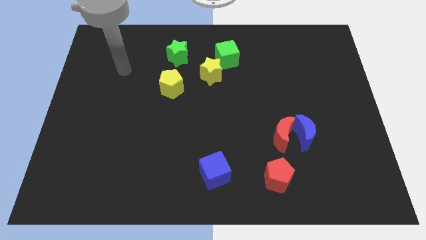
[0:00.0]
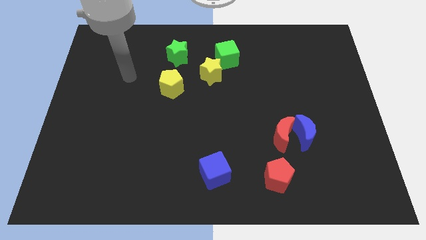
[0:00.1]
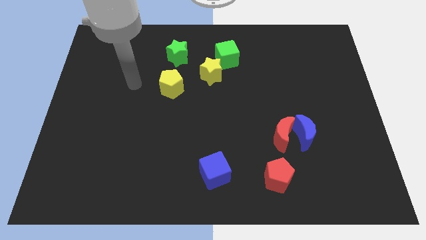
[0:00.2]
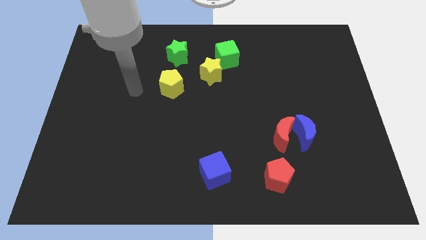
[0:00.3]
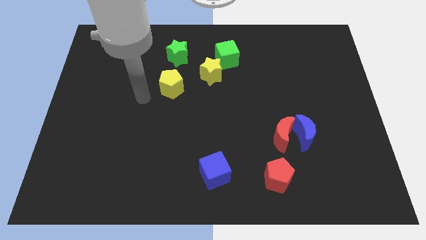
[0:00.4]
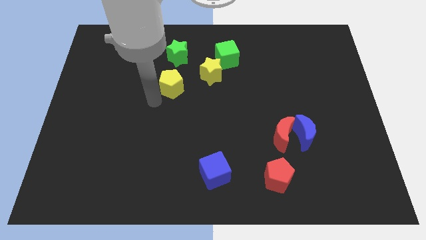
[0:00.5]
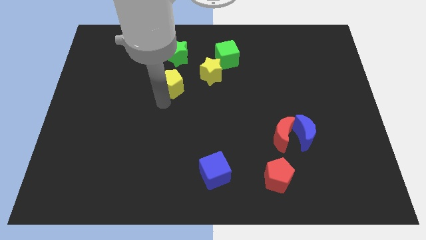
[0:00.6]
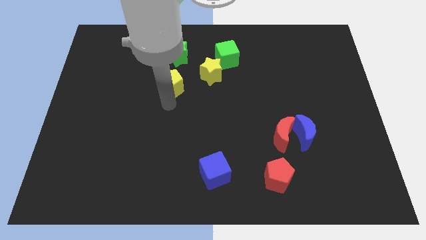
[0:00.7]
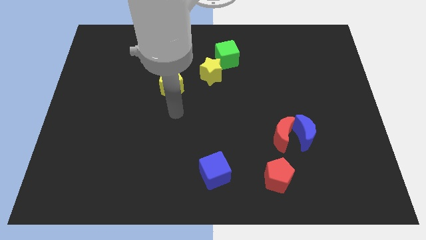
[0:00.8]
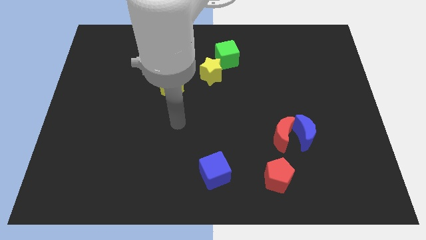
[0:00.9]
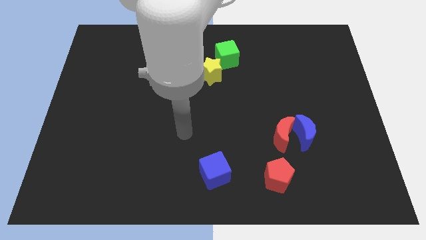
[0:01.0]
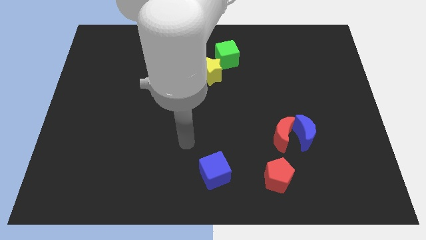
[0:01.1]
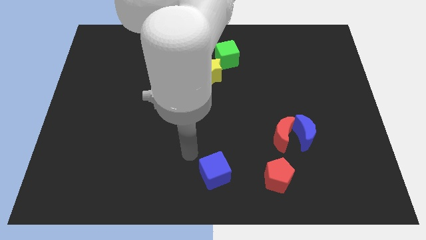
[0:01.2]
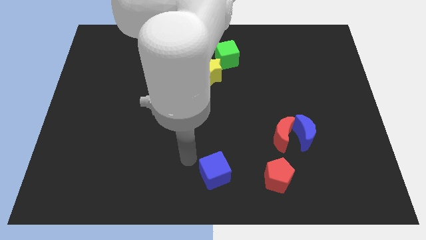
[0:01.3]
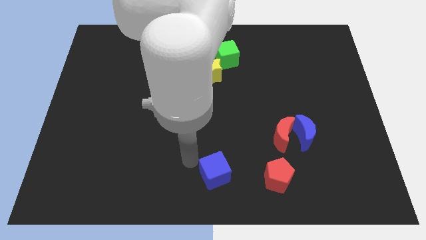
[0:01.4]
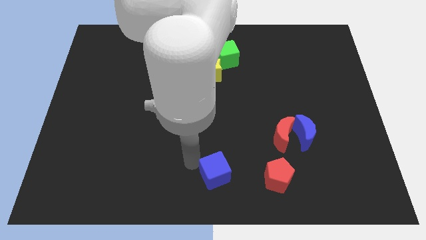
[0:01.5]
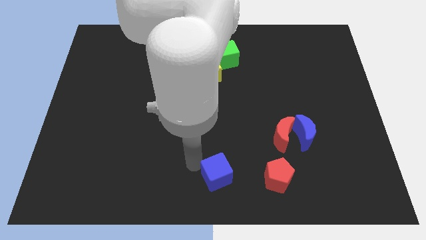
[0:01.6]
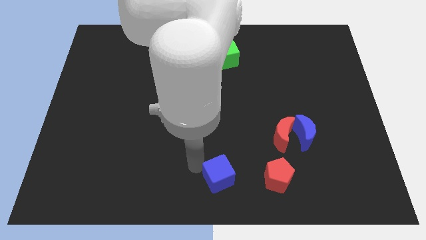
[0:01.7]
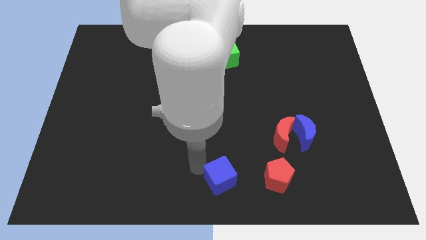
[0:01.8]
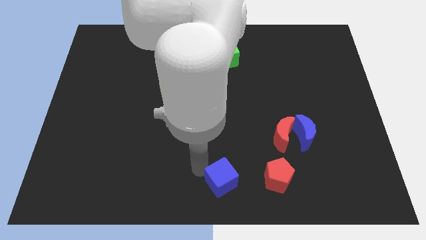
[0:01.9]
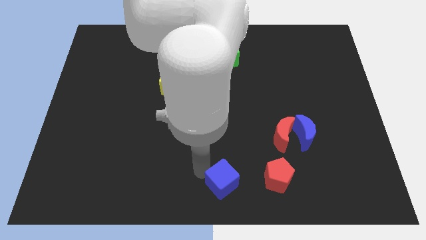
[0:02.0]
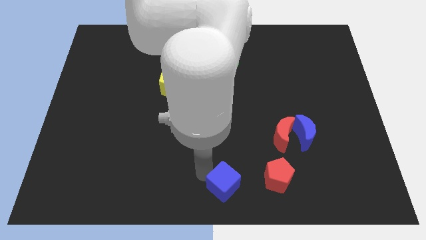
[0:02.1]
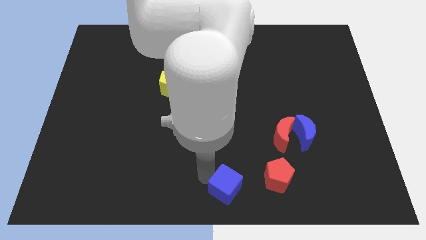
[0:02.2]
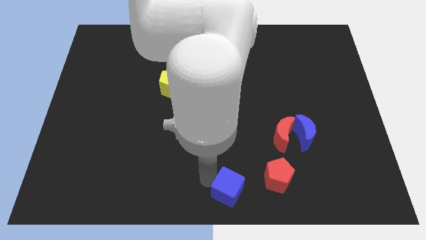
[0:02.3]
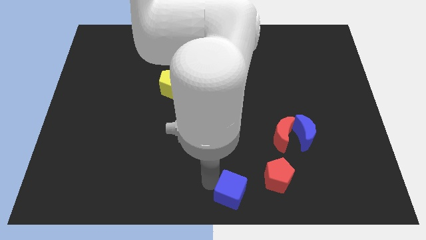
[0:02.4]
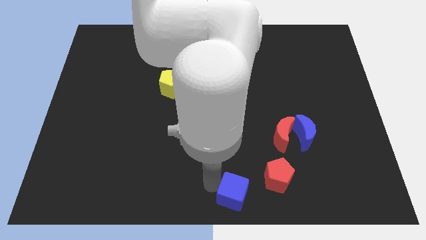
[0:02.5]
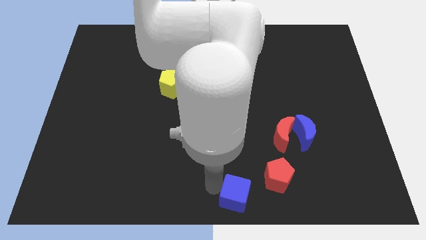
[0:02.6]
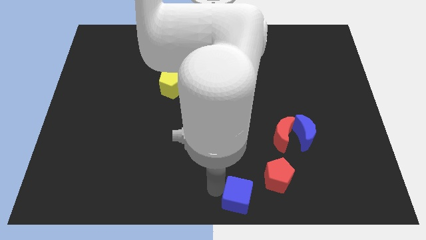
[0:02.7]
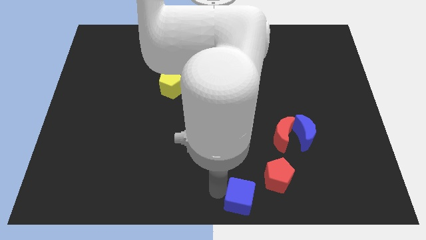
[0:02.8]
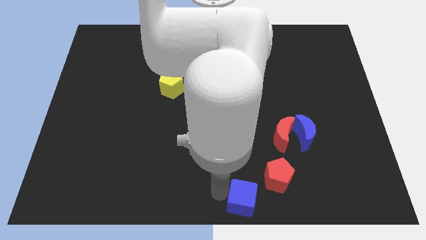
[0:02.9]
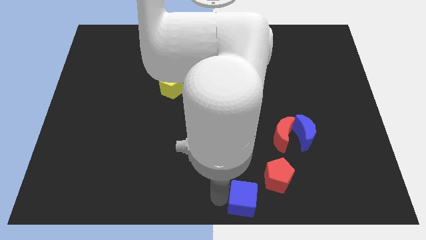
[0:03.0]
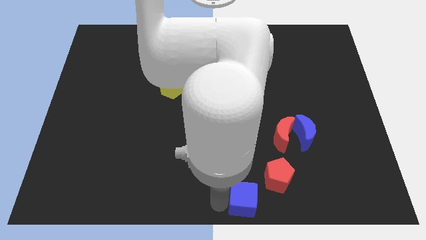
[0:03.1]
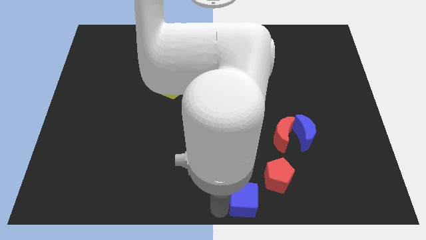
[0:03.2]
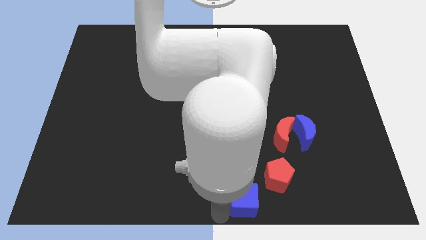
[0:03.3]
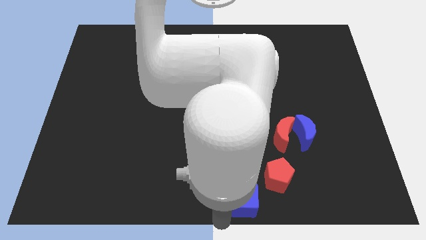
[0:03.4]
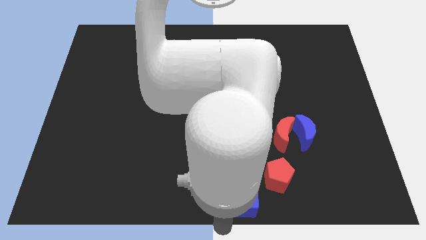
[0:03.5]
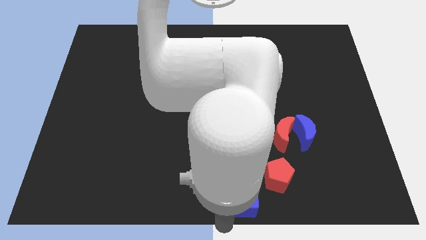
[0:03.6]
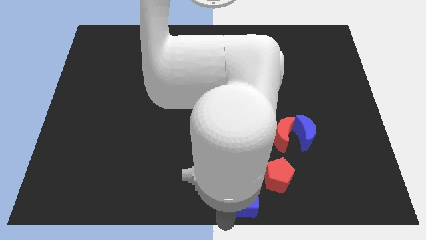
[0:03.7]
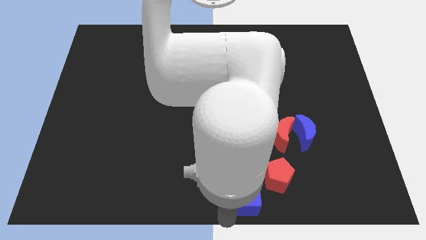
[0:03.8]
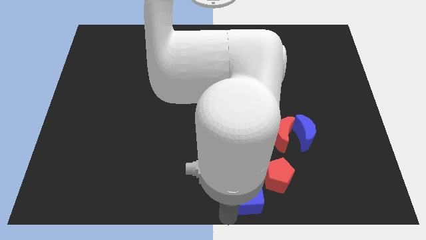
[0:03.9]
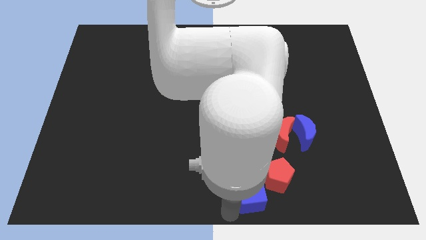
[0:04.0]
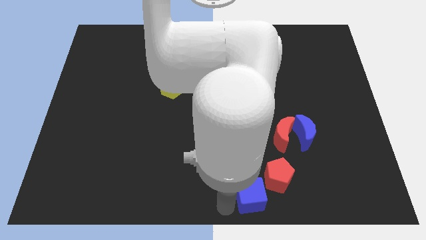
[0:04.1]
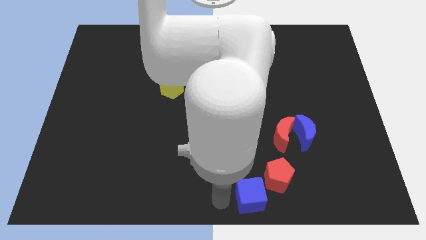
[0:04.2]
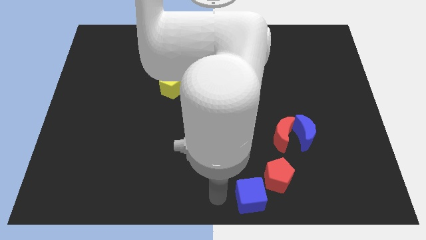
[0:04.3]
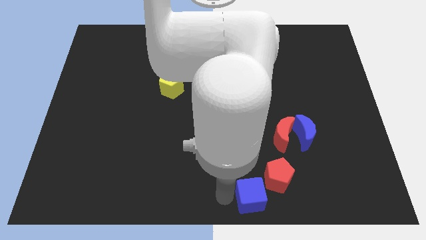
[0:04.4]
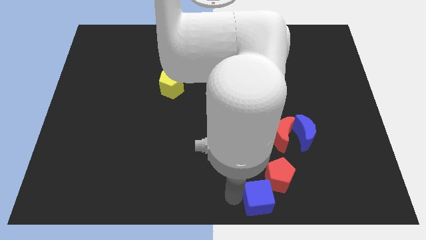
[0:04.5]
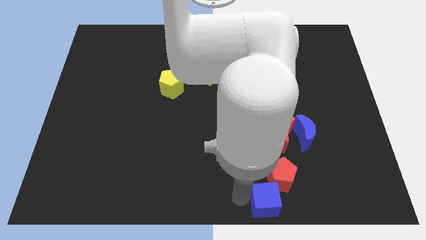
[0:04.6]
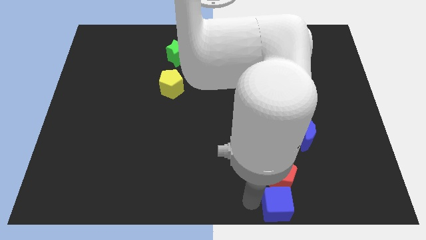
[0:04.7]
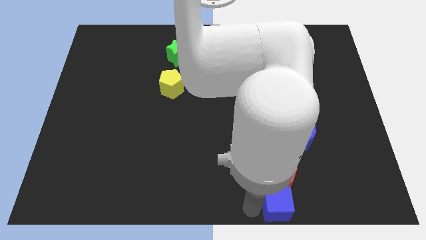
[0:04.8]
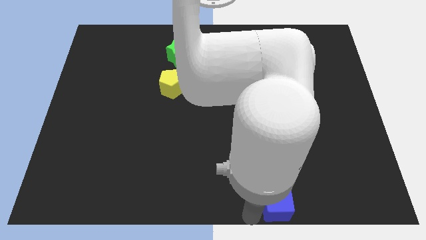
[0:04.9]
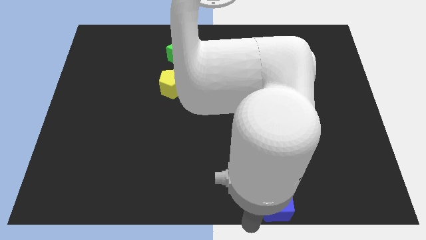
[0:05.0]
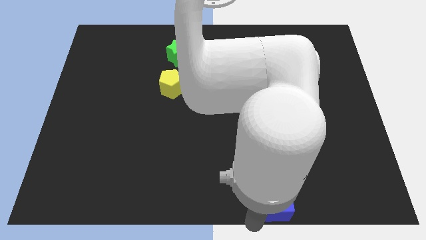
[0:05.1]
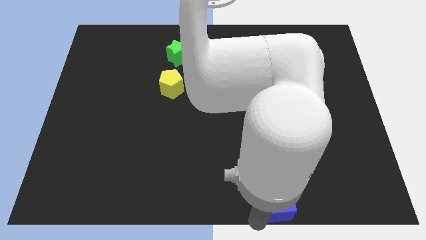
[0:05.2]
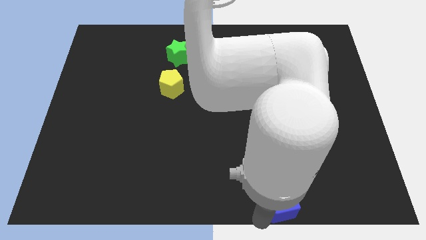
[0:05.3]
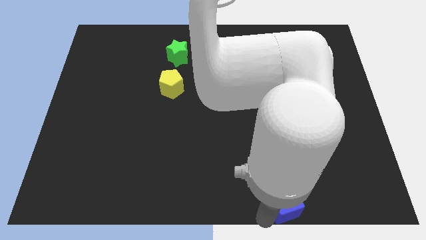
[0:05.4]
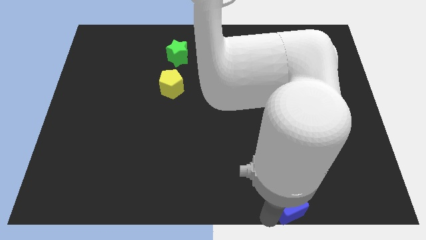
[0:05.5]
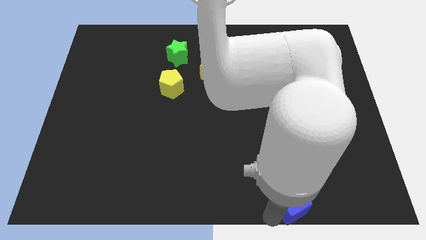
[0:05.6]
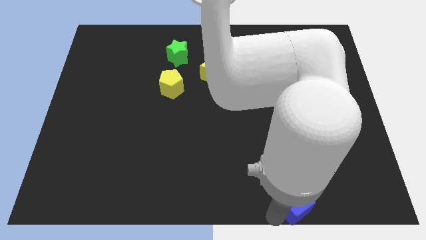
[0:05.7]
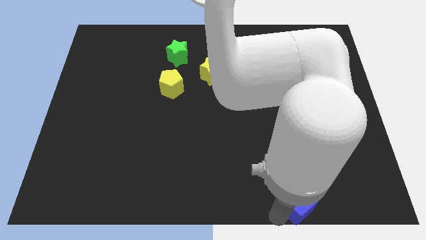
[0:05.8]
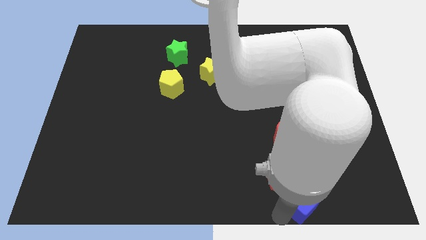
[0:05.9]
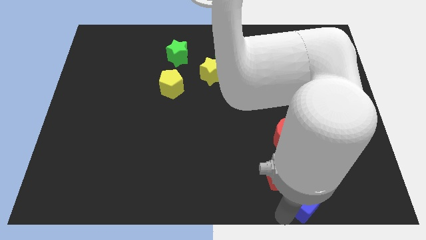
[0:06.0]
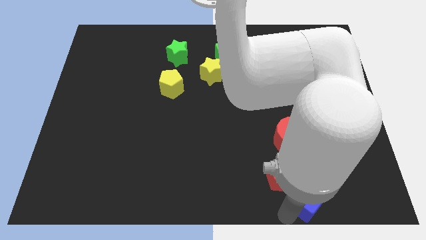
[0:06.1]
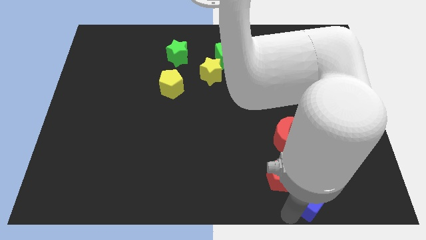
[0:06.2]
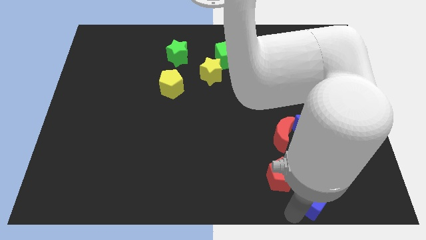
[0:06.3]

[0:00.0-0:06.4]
move the blue cube to the right side of the red pentagon

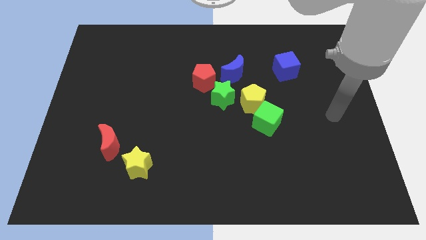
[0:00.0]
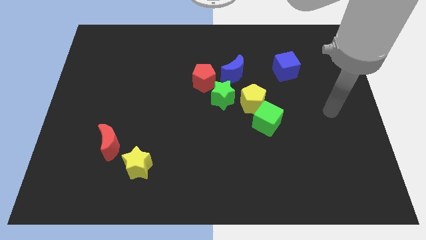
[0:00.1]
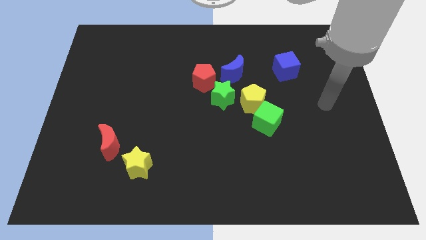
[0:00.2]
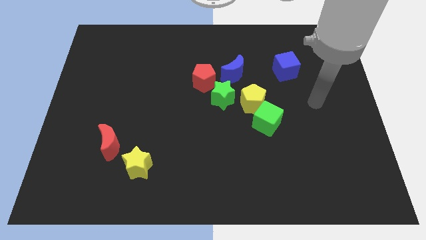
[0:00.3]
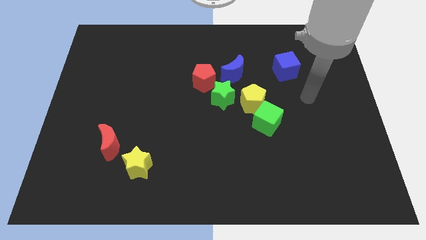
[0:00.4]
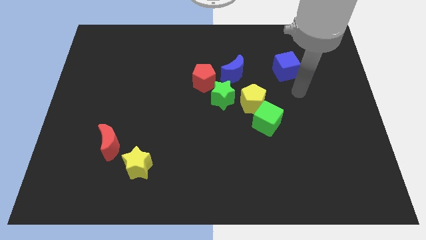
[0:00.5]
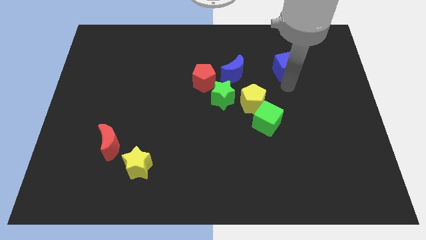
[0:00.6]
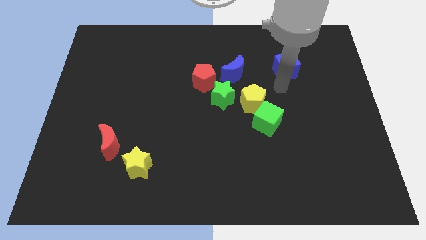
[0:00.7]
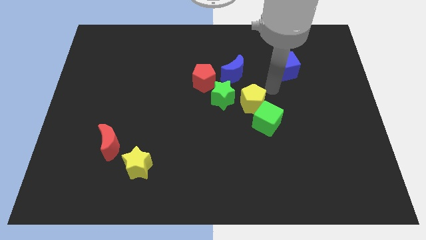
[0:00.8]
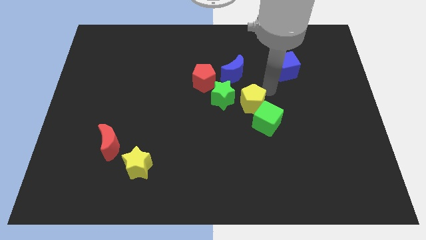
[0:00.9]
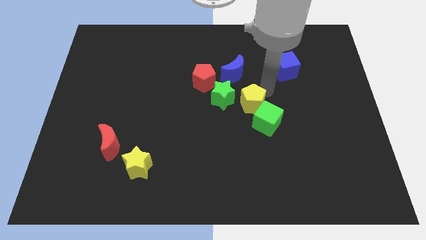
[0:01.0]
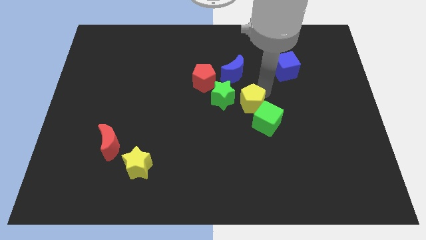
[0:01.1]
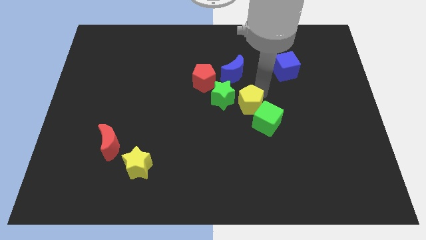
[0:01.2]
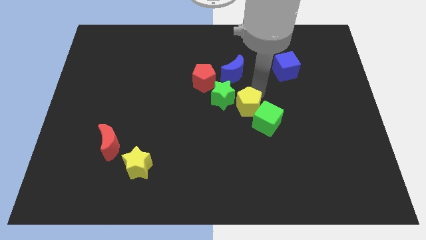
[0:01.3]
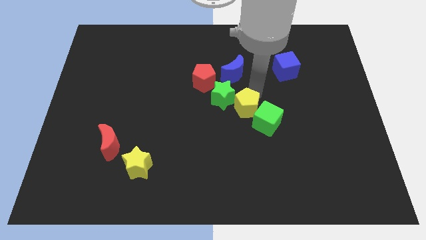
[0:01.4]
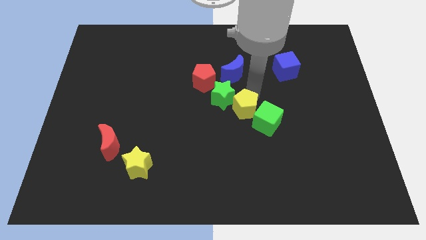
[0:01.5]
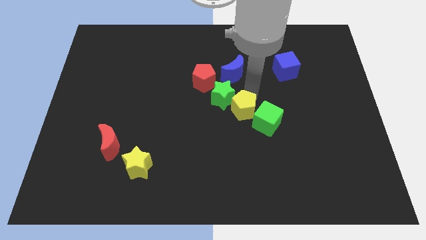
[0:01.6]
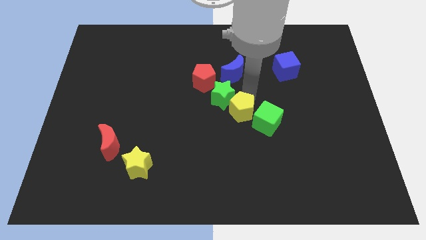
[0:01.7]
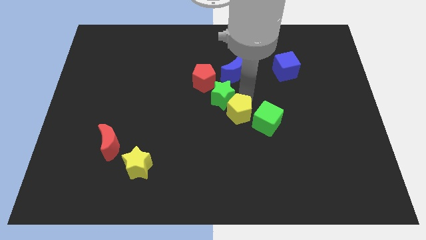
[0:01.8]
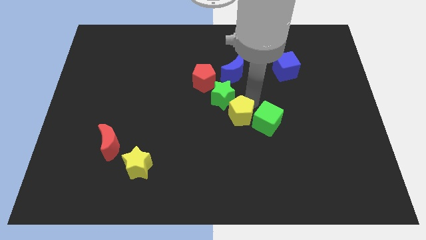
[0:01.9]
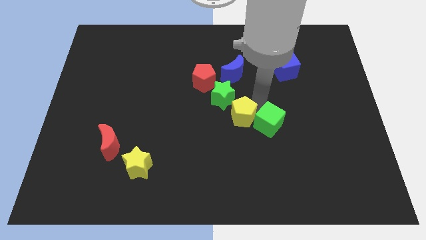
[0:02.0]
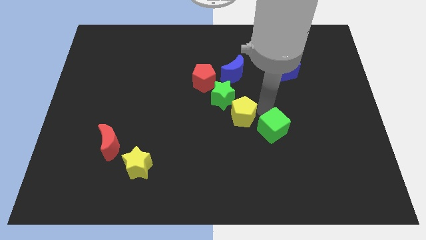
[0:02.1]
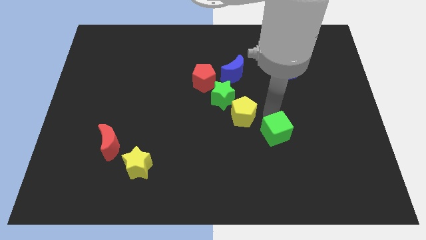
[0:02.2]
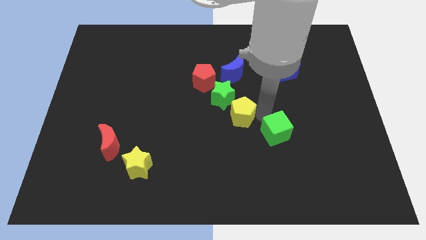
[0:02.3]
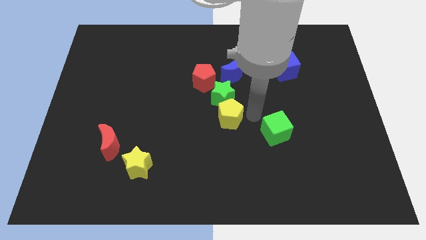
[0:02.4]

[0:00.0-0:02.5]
push the yellow pentagon diagonally down and to the left of the green star
